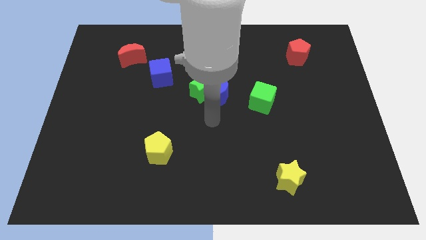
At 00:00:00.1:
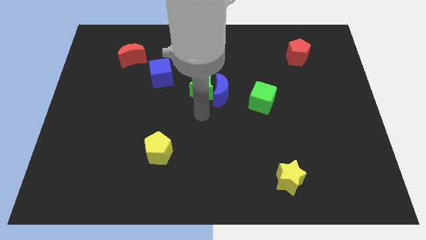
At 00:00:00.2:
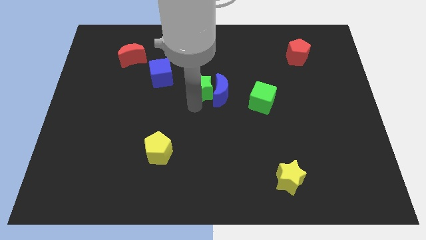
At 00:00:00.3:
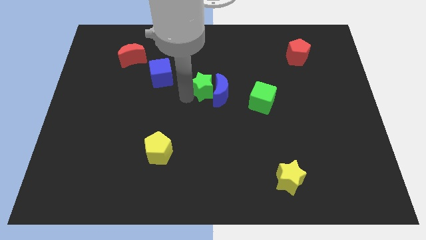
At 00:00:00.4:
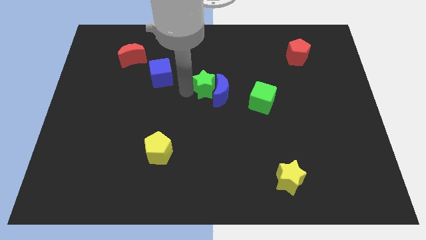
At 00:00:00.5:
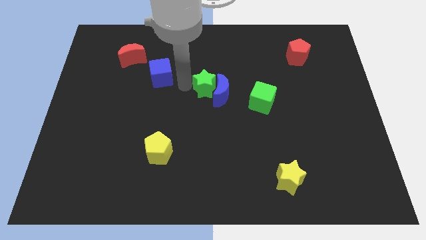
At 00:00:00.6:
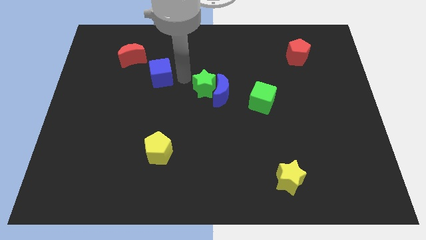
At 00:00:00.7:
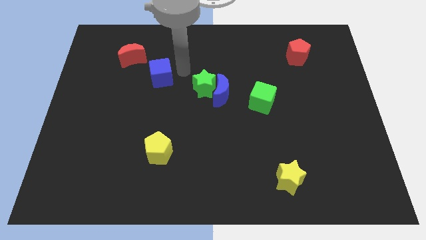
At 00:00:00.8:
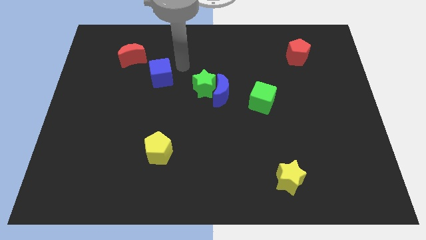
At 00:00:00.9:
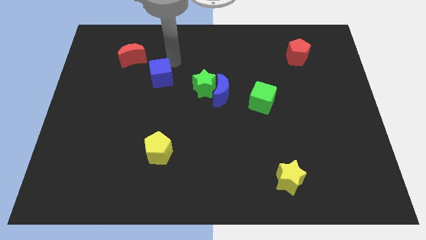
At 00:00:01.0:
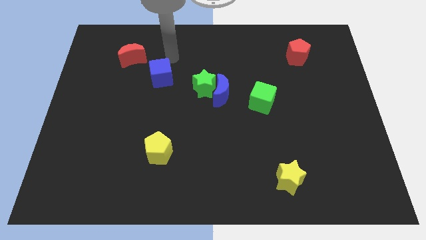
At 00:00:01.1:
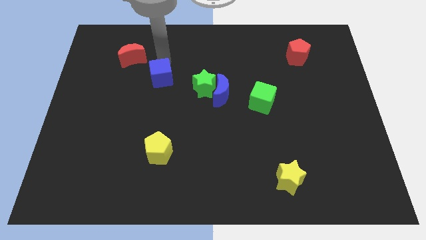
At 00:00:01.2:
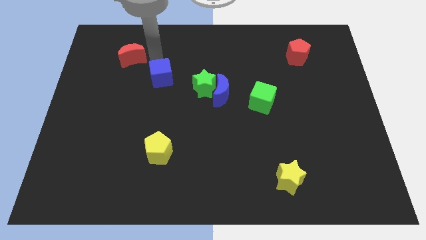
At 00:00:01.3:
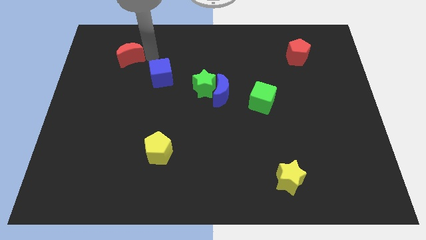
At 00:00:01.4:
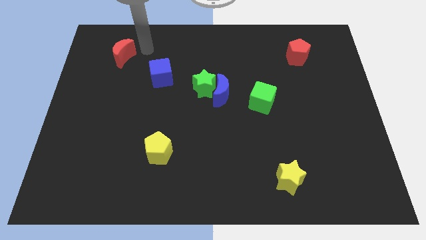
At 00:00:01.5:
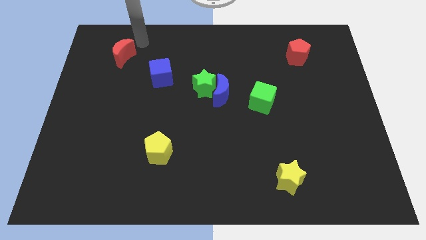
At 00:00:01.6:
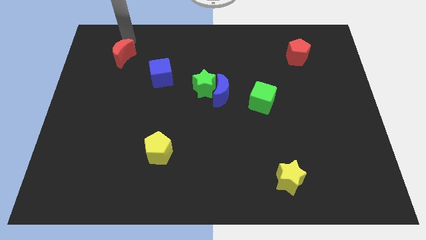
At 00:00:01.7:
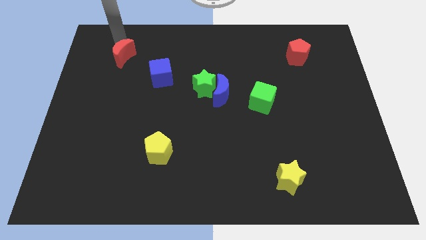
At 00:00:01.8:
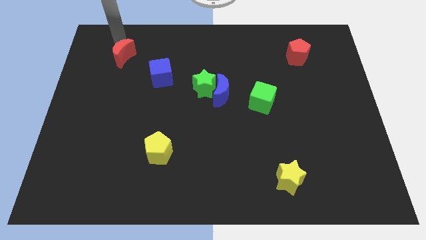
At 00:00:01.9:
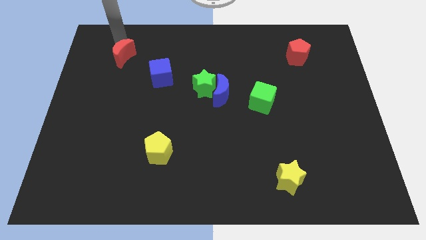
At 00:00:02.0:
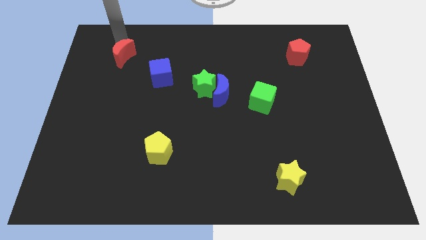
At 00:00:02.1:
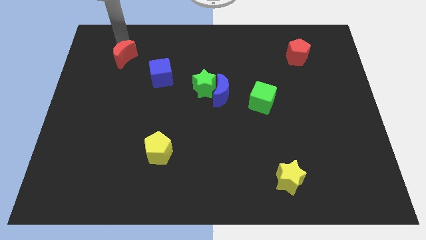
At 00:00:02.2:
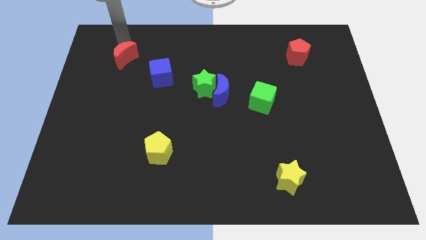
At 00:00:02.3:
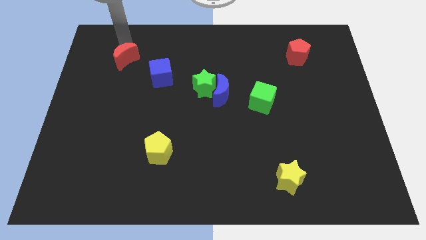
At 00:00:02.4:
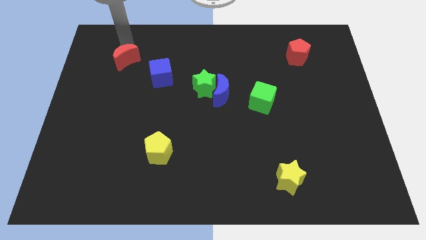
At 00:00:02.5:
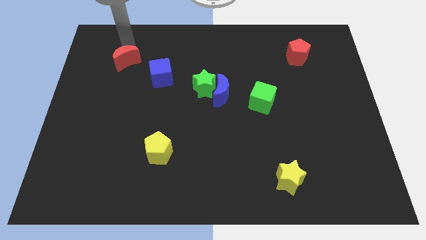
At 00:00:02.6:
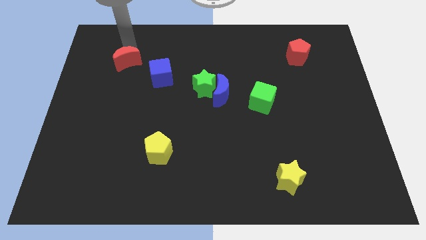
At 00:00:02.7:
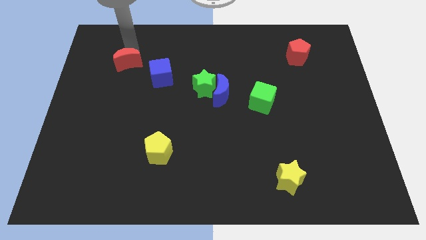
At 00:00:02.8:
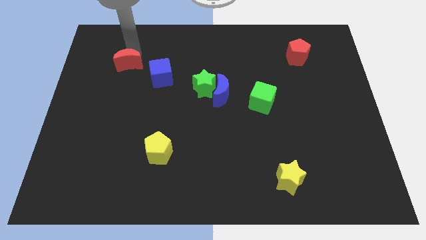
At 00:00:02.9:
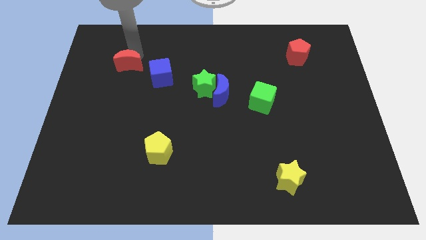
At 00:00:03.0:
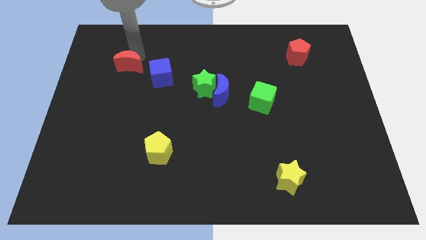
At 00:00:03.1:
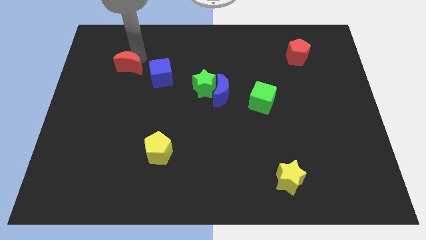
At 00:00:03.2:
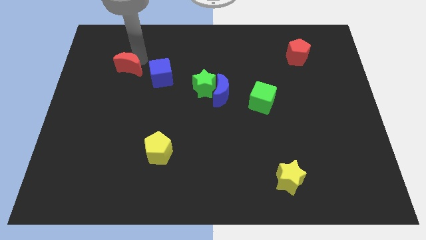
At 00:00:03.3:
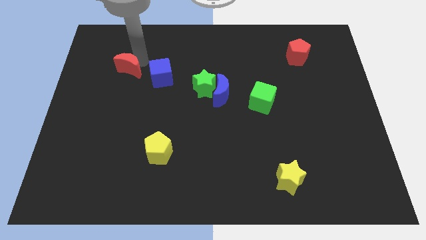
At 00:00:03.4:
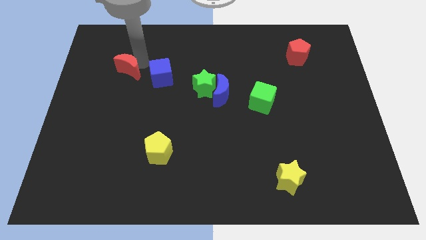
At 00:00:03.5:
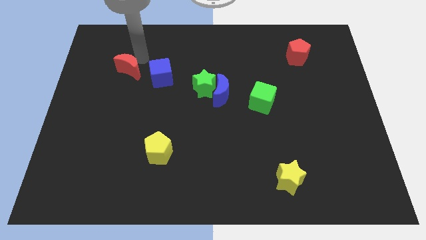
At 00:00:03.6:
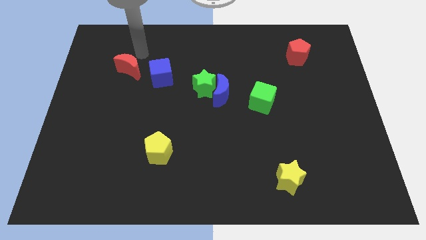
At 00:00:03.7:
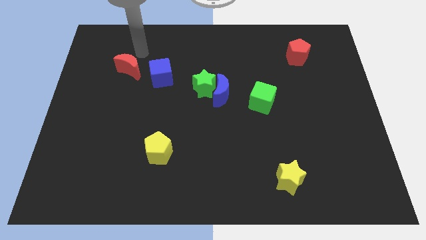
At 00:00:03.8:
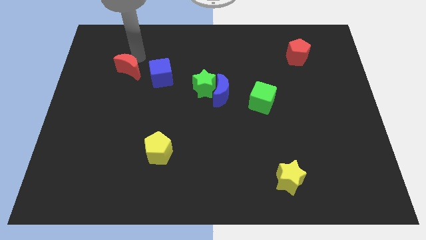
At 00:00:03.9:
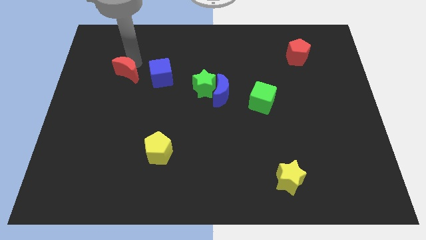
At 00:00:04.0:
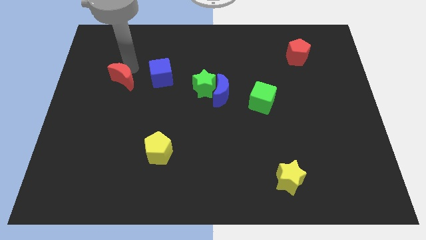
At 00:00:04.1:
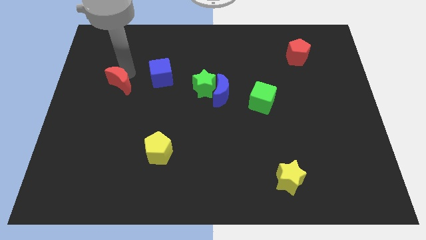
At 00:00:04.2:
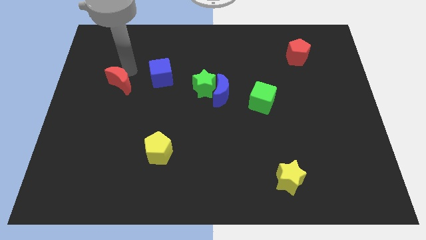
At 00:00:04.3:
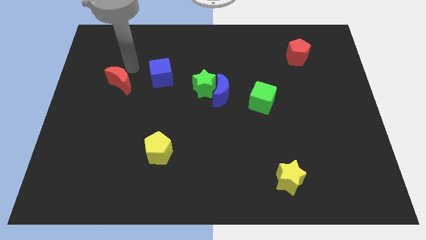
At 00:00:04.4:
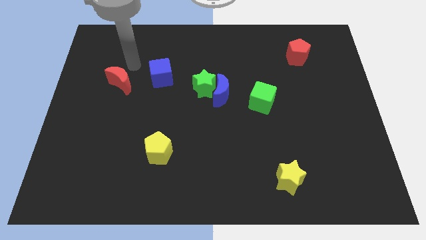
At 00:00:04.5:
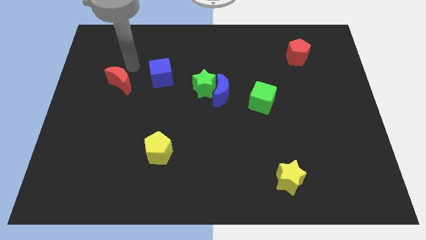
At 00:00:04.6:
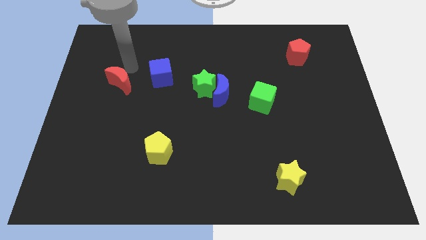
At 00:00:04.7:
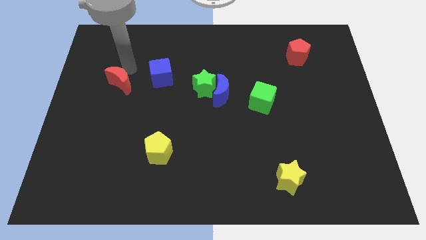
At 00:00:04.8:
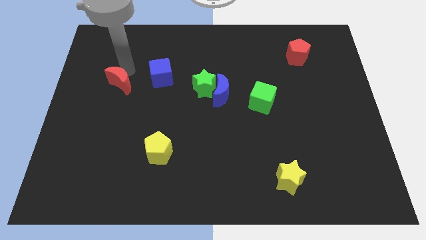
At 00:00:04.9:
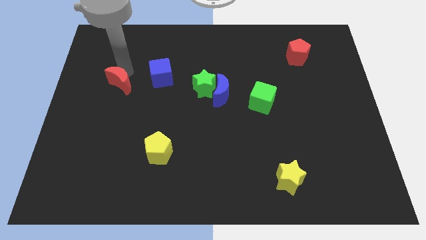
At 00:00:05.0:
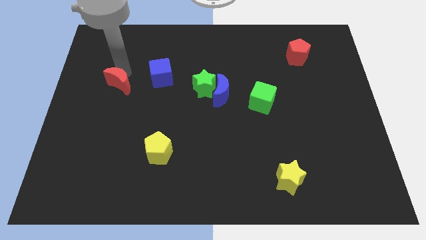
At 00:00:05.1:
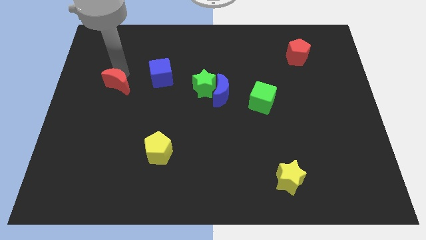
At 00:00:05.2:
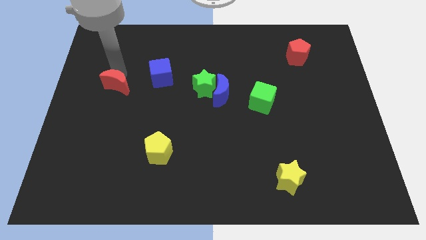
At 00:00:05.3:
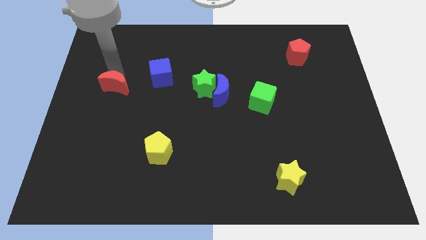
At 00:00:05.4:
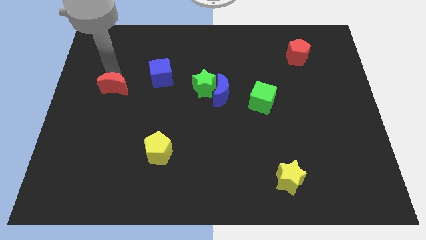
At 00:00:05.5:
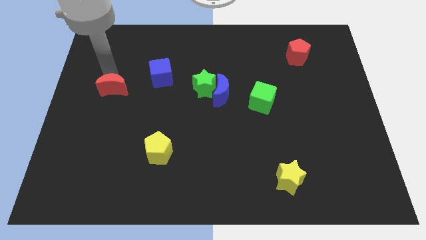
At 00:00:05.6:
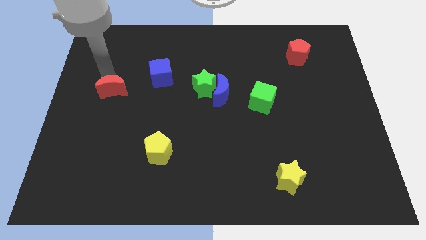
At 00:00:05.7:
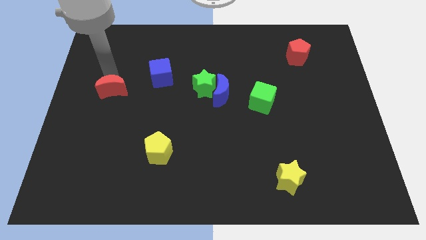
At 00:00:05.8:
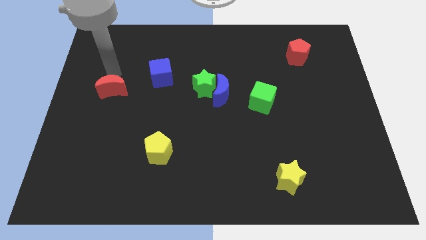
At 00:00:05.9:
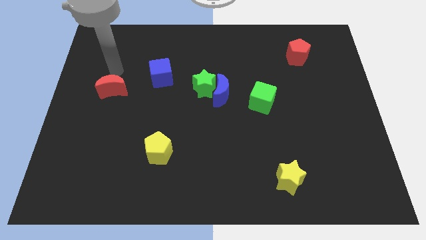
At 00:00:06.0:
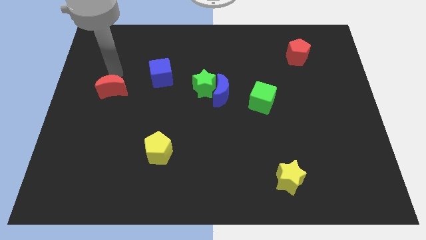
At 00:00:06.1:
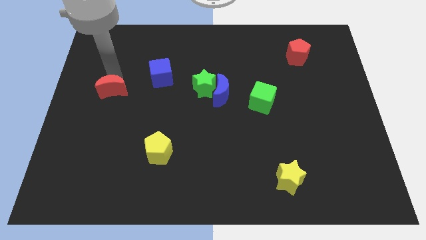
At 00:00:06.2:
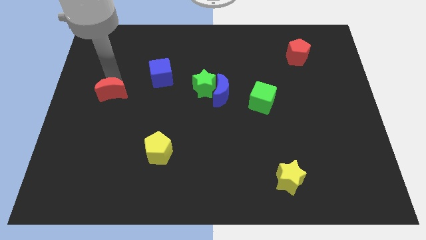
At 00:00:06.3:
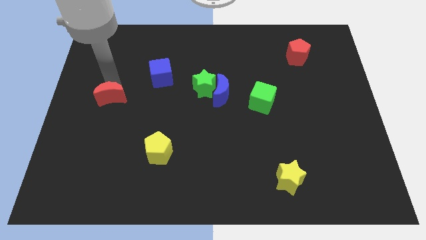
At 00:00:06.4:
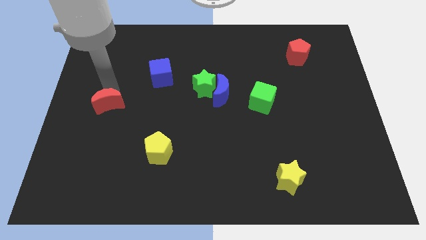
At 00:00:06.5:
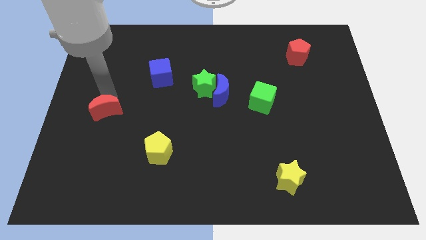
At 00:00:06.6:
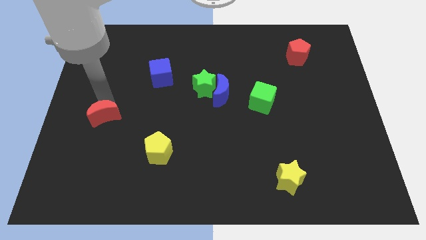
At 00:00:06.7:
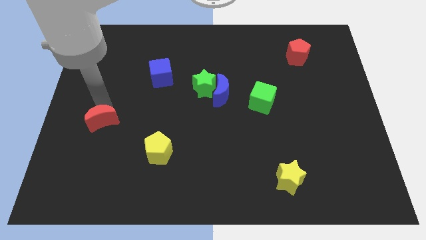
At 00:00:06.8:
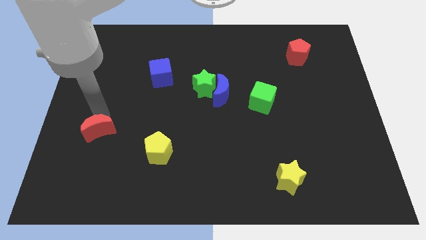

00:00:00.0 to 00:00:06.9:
slide the red moon downwards

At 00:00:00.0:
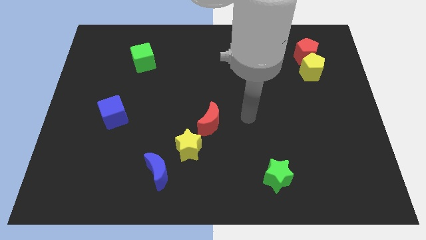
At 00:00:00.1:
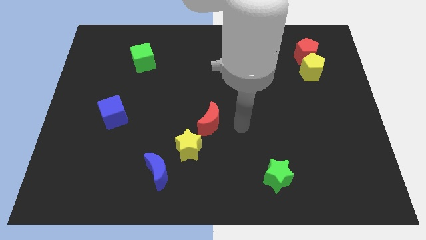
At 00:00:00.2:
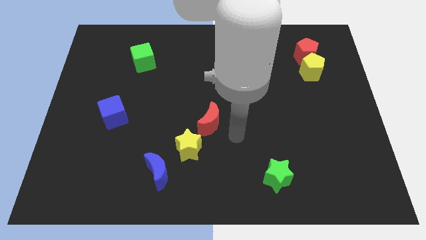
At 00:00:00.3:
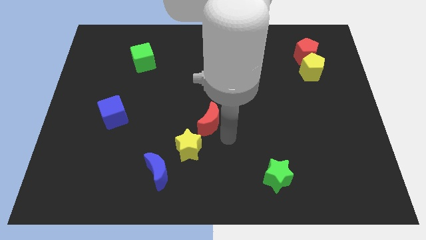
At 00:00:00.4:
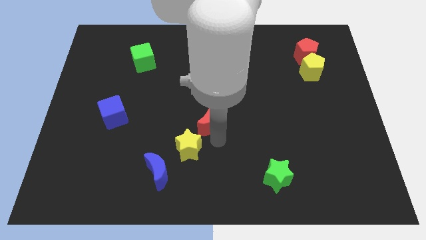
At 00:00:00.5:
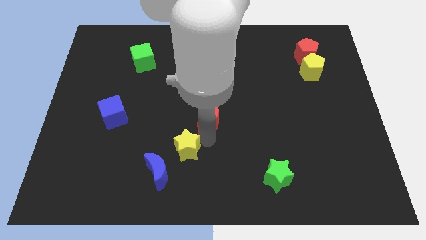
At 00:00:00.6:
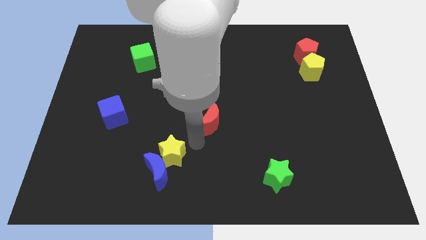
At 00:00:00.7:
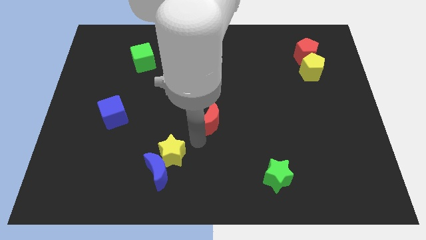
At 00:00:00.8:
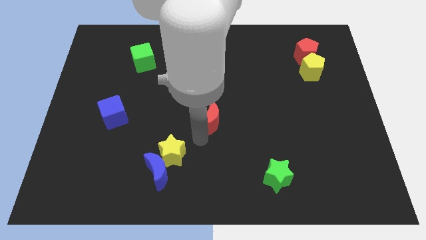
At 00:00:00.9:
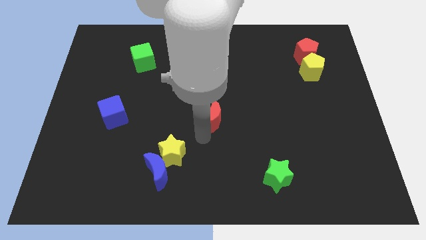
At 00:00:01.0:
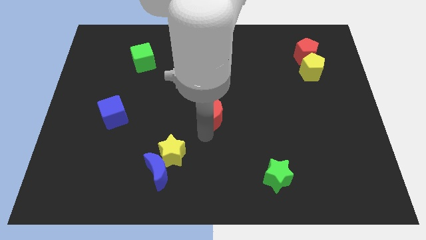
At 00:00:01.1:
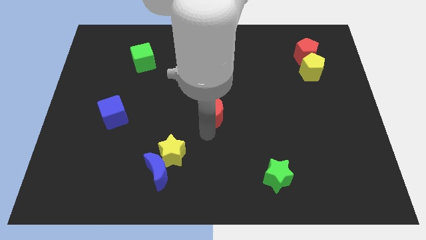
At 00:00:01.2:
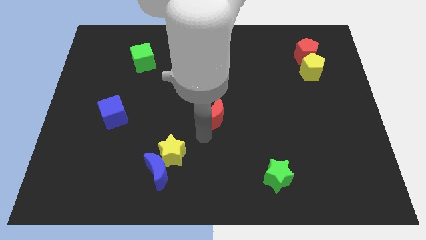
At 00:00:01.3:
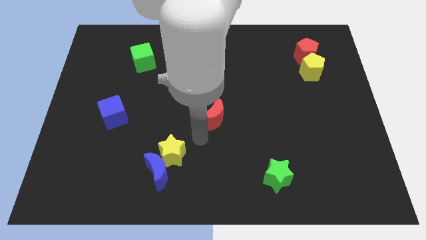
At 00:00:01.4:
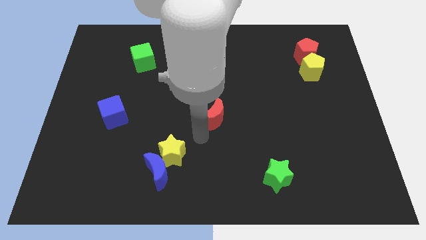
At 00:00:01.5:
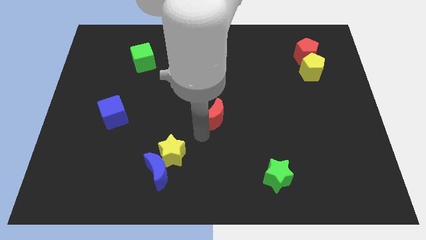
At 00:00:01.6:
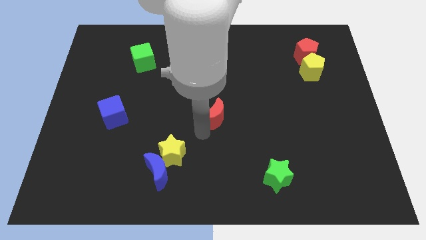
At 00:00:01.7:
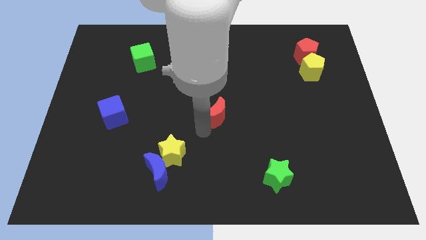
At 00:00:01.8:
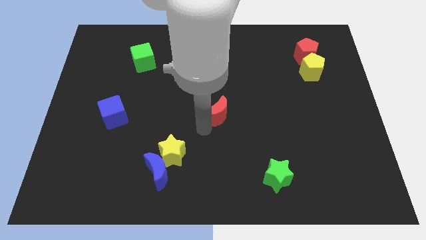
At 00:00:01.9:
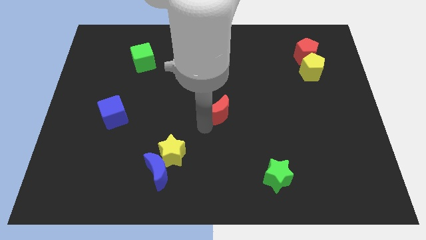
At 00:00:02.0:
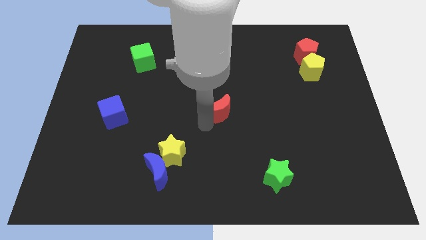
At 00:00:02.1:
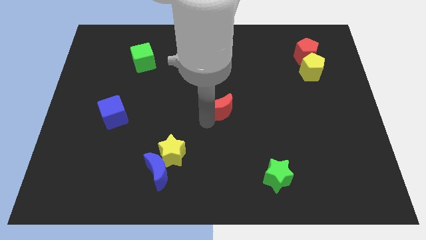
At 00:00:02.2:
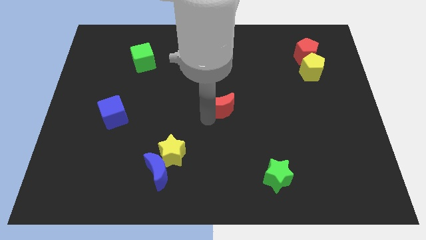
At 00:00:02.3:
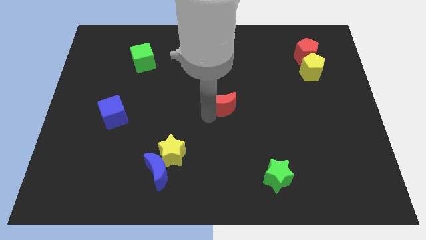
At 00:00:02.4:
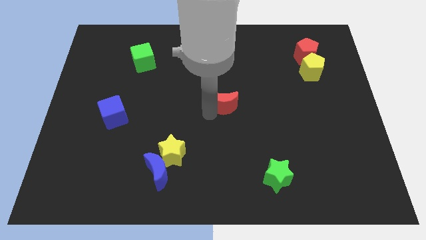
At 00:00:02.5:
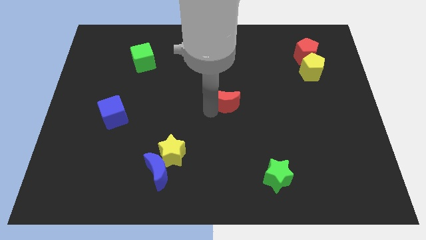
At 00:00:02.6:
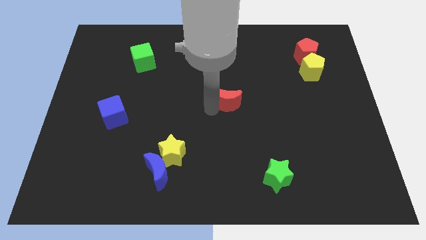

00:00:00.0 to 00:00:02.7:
move the red moon slightly upwards and right diagonally
